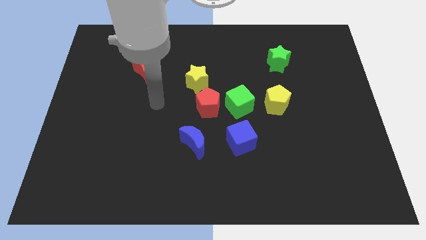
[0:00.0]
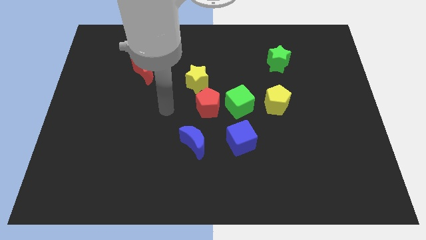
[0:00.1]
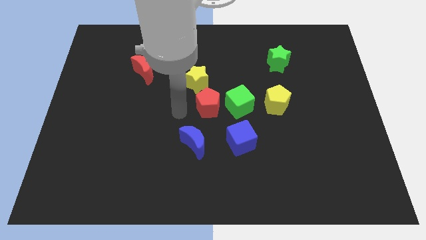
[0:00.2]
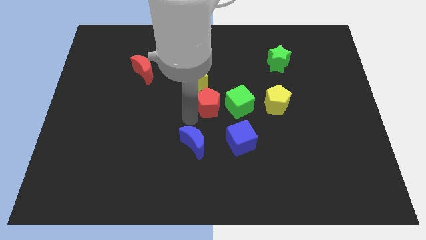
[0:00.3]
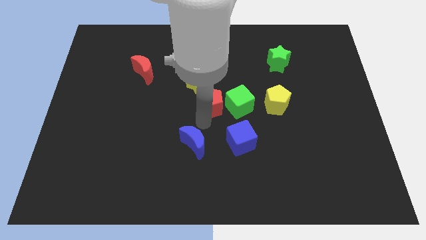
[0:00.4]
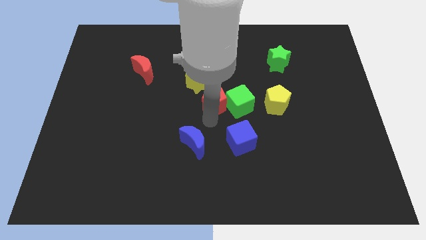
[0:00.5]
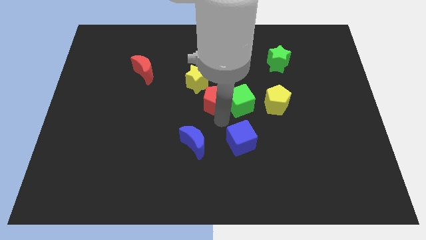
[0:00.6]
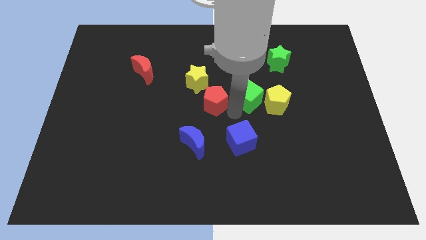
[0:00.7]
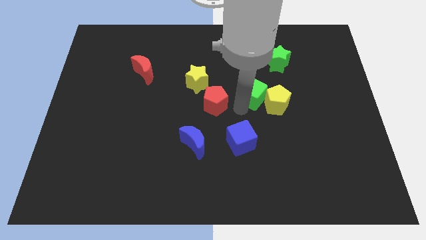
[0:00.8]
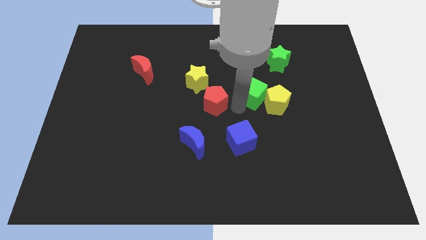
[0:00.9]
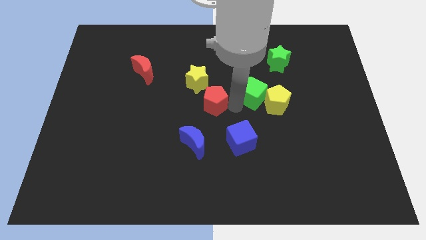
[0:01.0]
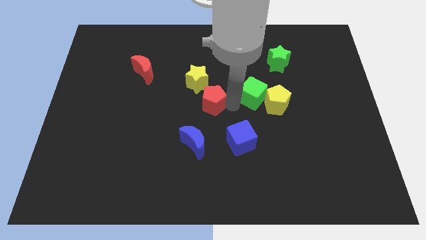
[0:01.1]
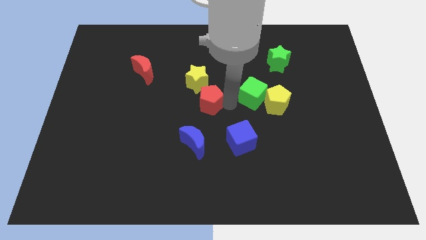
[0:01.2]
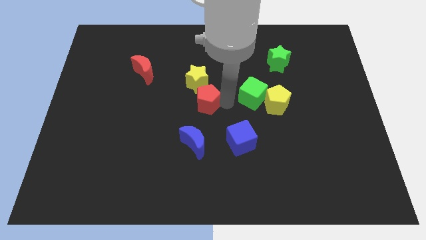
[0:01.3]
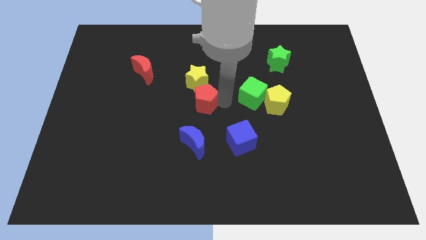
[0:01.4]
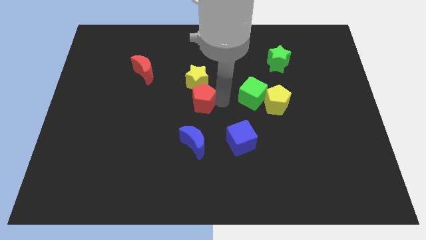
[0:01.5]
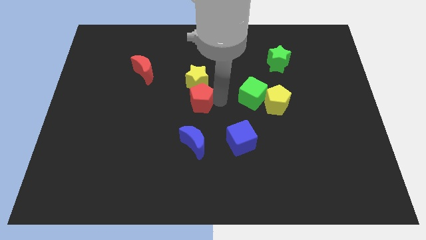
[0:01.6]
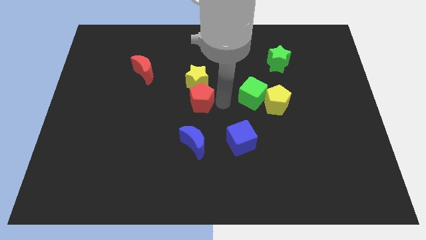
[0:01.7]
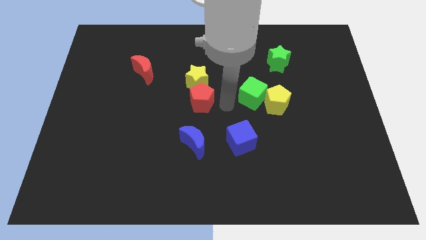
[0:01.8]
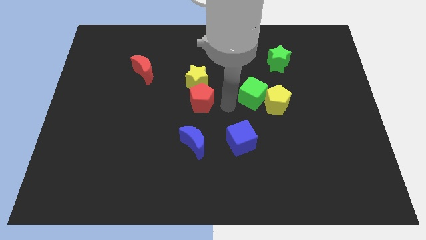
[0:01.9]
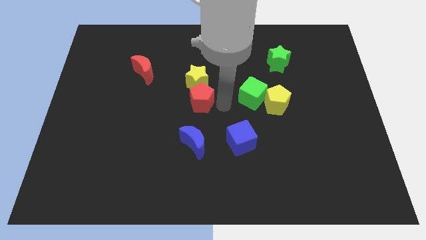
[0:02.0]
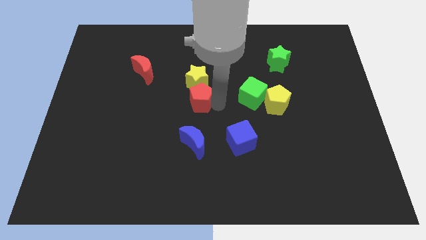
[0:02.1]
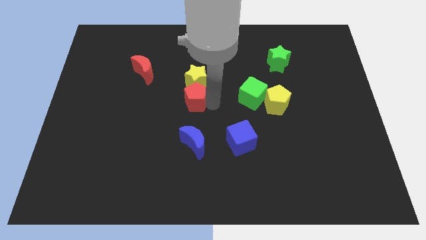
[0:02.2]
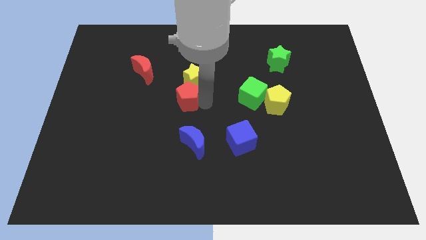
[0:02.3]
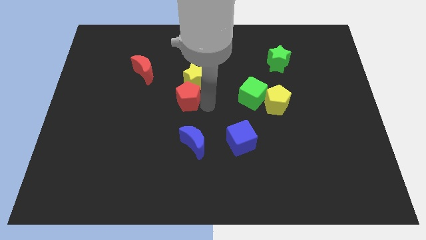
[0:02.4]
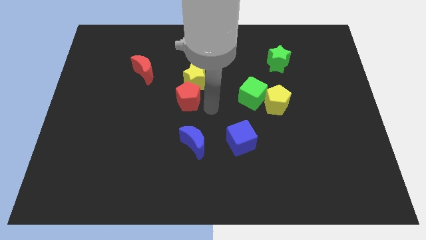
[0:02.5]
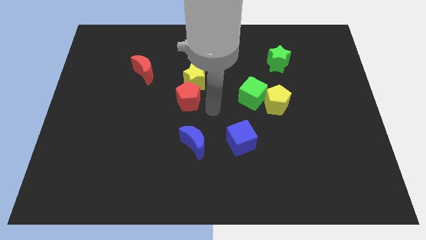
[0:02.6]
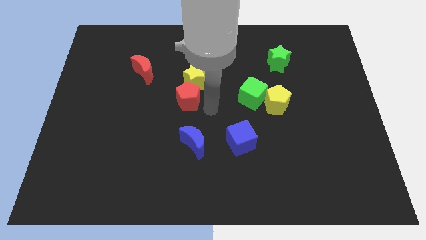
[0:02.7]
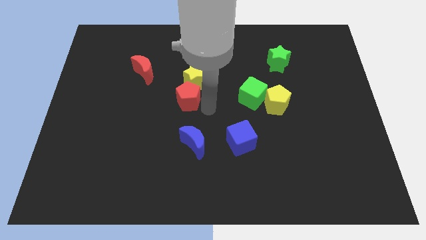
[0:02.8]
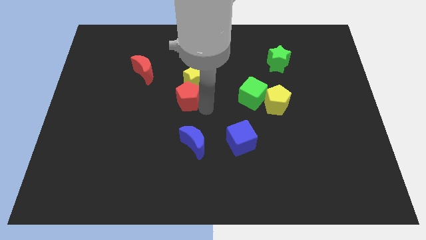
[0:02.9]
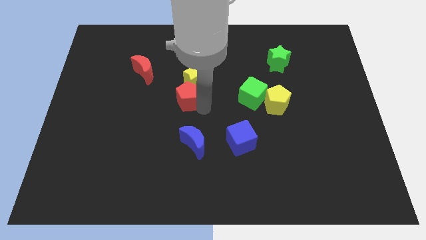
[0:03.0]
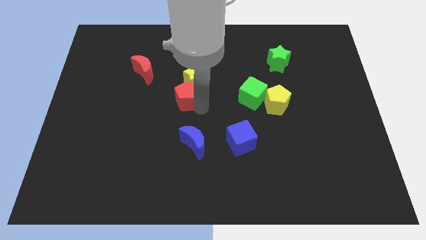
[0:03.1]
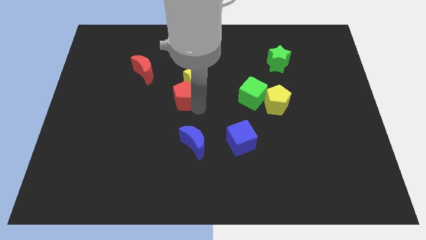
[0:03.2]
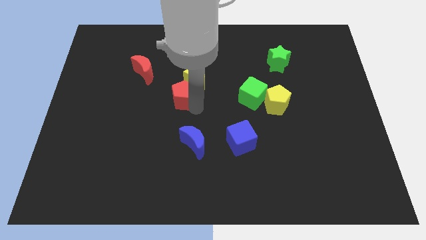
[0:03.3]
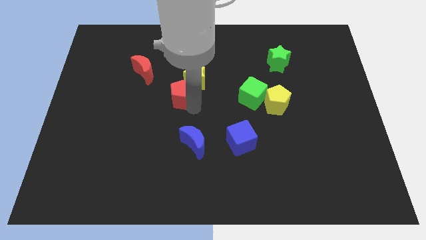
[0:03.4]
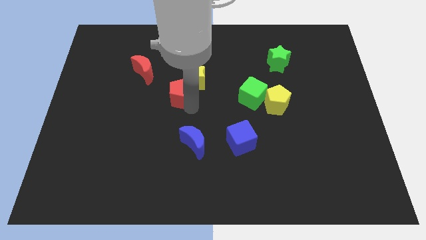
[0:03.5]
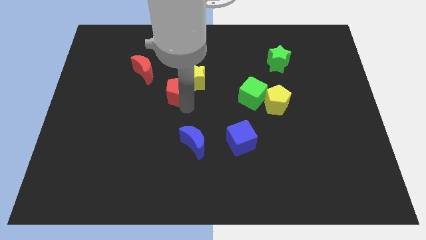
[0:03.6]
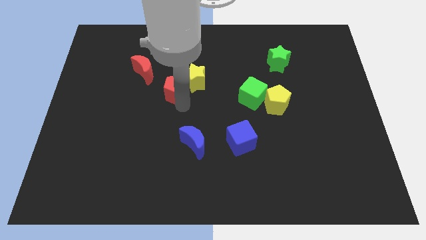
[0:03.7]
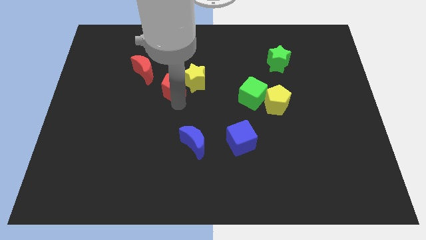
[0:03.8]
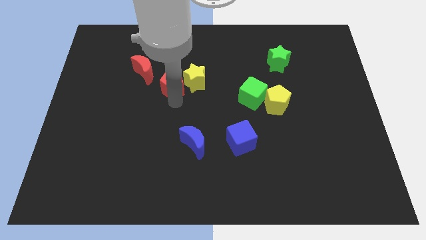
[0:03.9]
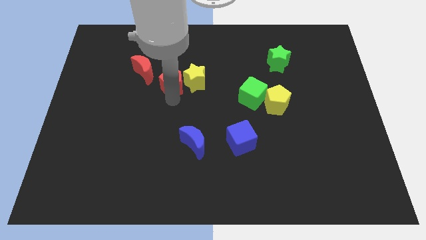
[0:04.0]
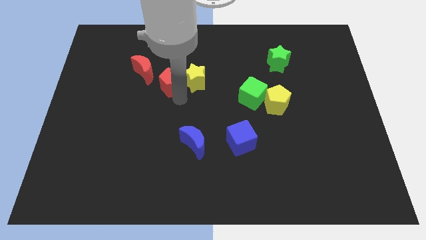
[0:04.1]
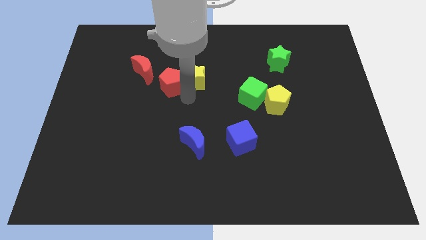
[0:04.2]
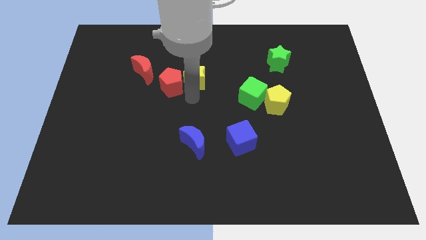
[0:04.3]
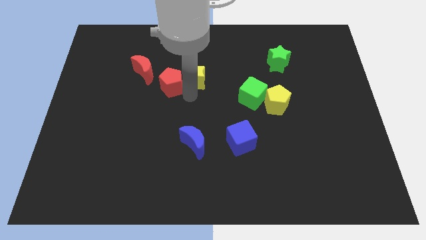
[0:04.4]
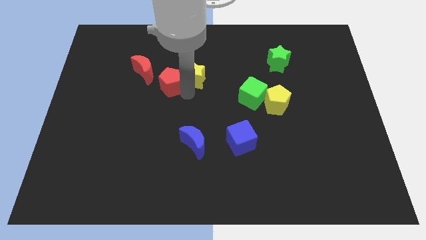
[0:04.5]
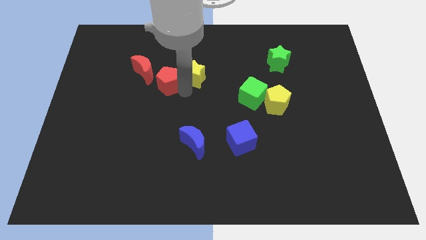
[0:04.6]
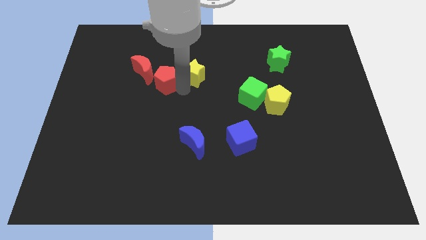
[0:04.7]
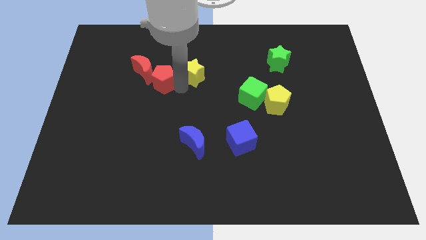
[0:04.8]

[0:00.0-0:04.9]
slide the red pentagon towards the red moon

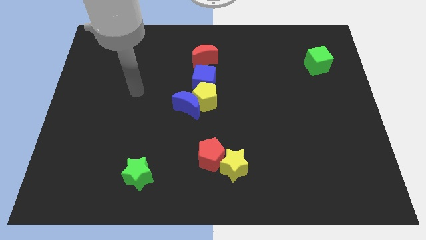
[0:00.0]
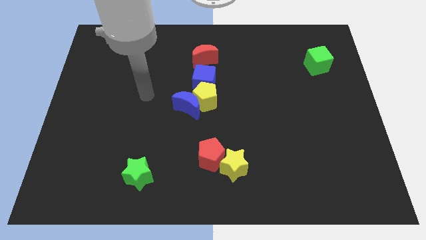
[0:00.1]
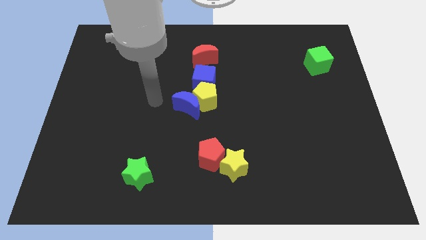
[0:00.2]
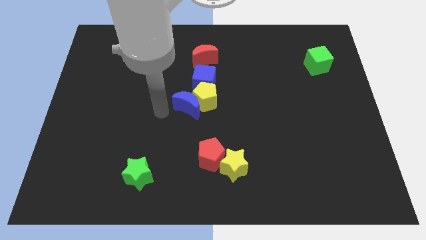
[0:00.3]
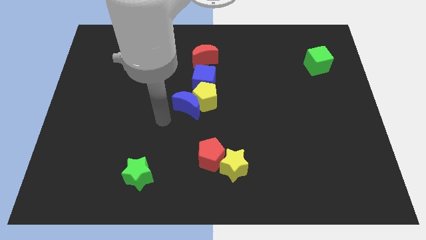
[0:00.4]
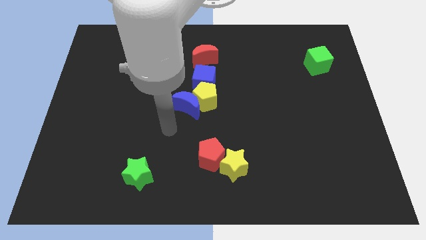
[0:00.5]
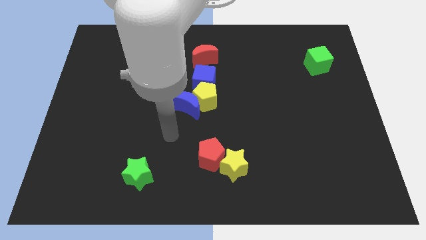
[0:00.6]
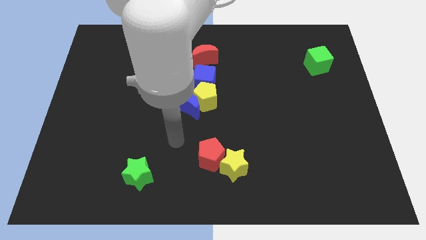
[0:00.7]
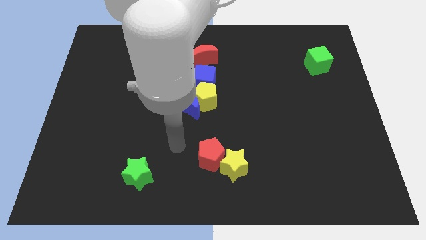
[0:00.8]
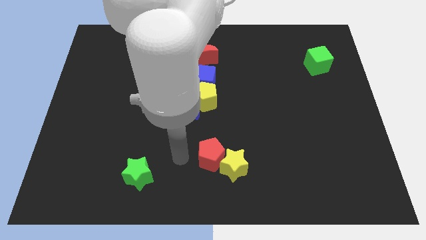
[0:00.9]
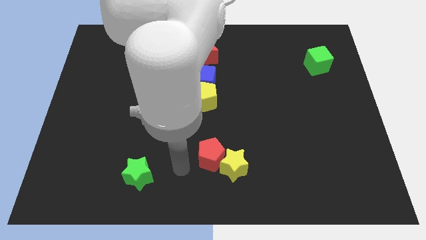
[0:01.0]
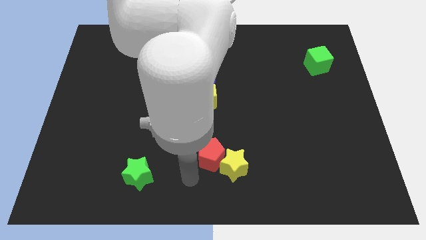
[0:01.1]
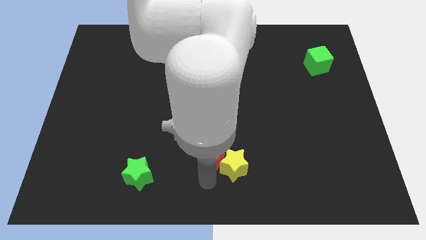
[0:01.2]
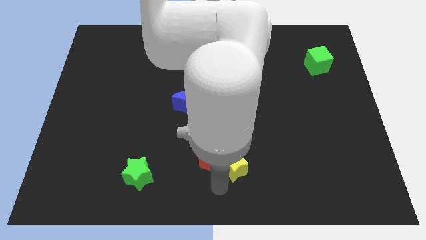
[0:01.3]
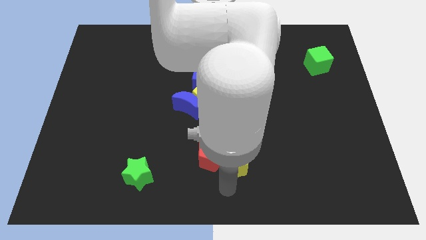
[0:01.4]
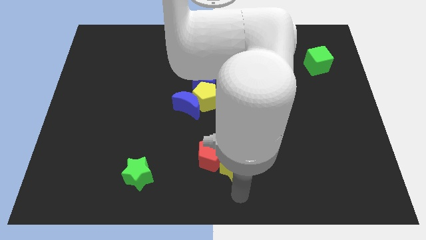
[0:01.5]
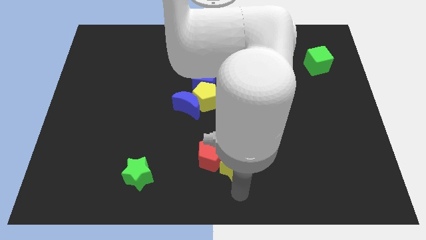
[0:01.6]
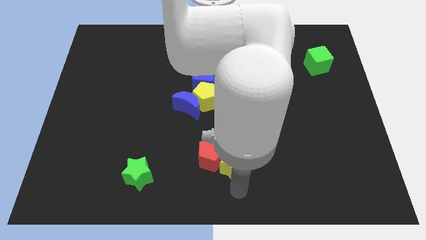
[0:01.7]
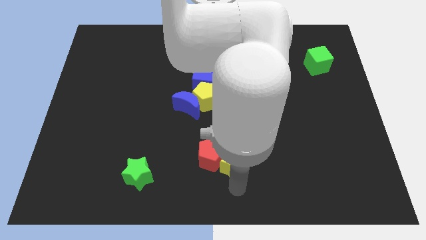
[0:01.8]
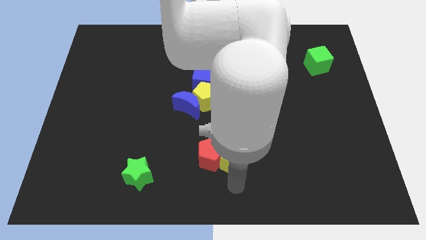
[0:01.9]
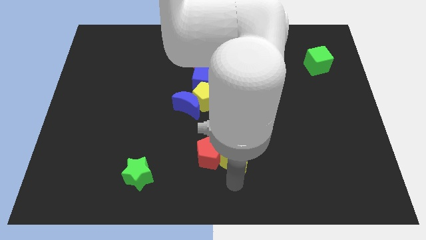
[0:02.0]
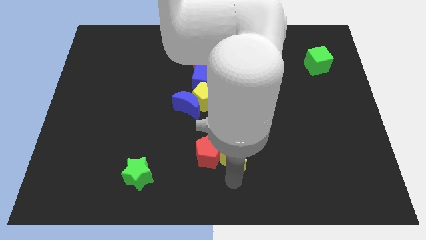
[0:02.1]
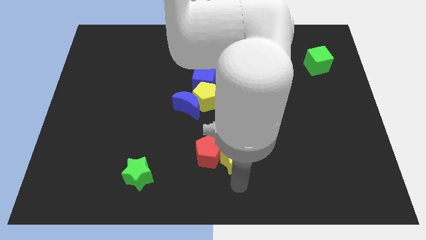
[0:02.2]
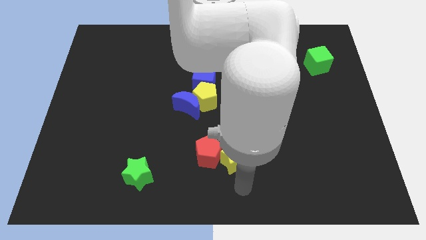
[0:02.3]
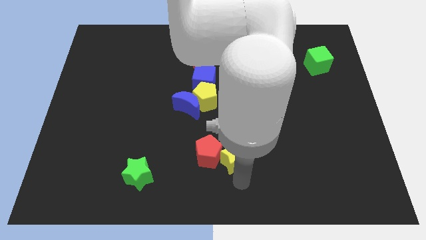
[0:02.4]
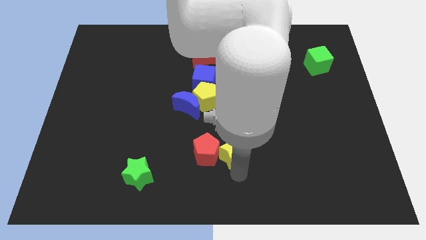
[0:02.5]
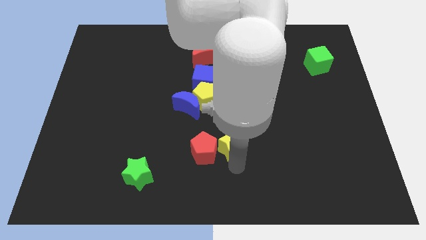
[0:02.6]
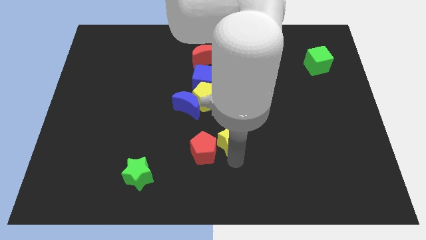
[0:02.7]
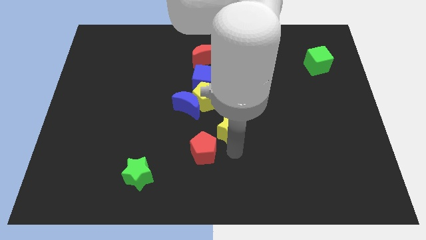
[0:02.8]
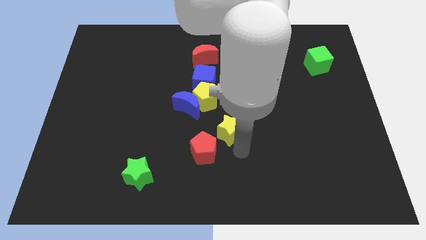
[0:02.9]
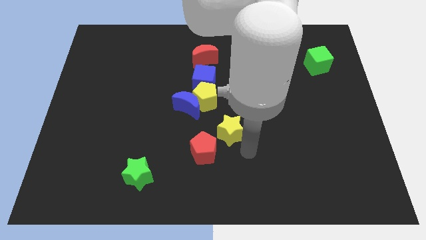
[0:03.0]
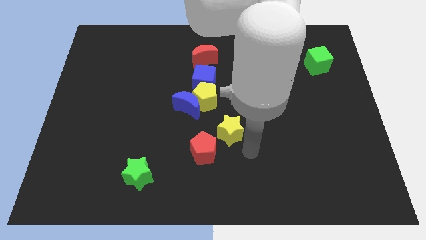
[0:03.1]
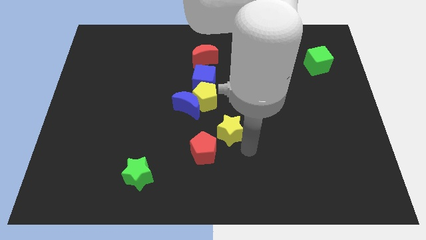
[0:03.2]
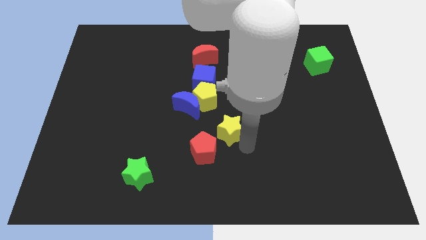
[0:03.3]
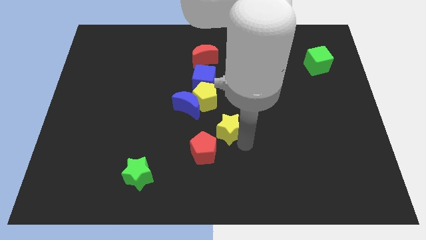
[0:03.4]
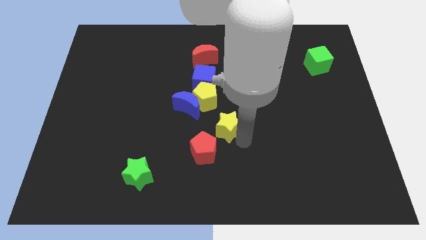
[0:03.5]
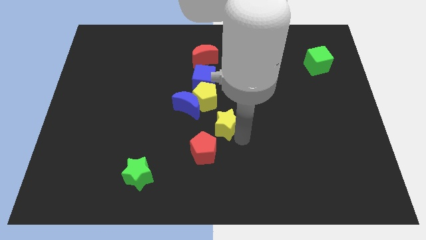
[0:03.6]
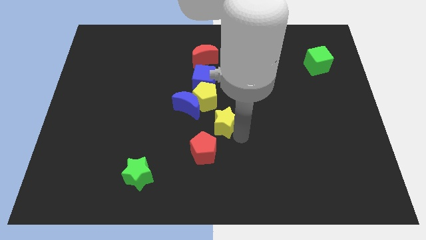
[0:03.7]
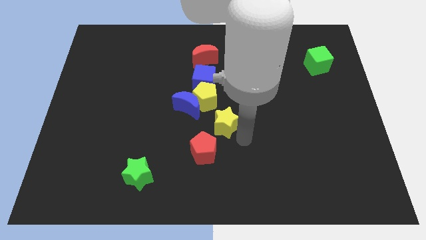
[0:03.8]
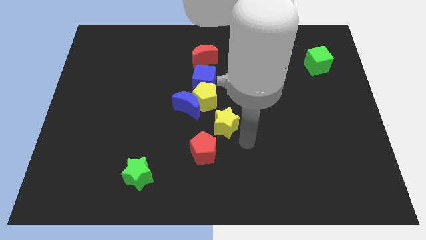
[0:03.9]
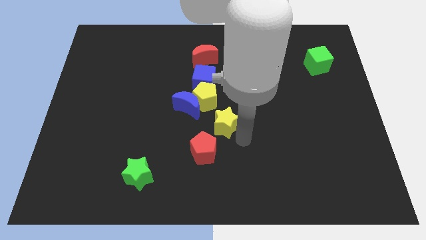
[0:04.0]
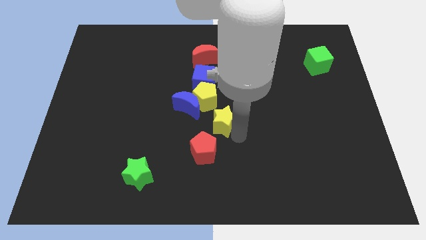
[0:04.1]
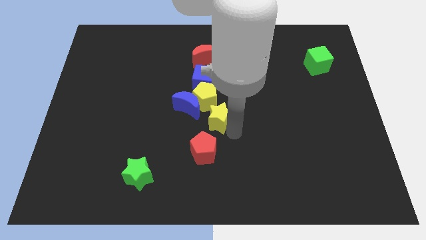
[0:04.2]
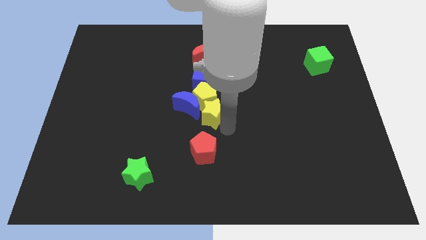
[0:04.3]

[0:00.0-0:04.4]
put the yellow star close to the yellow pentagon
